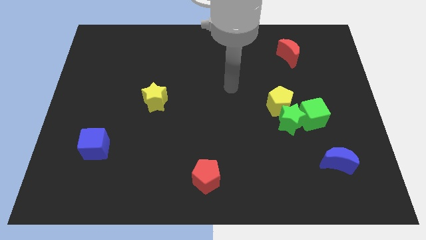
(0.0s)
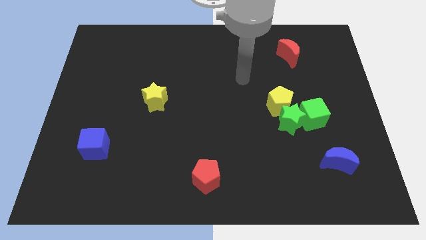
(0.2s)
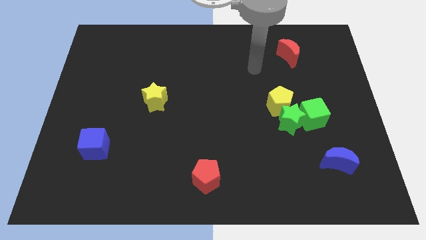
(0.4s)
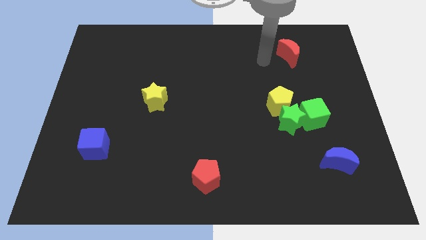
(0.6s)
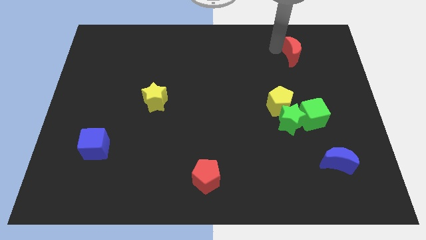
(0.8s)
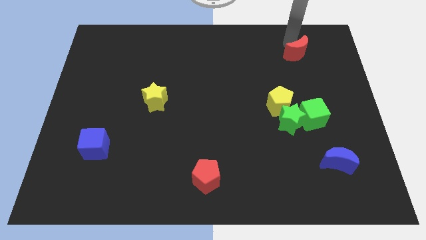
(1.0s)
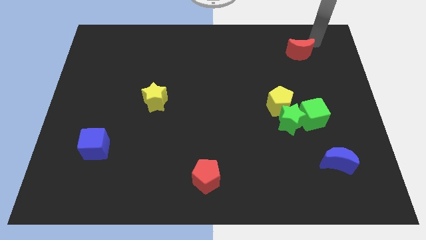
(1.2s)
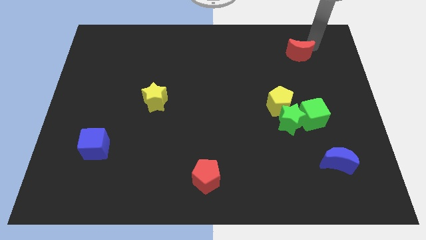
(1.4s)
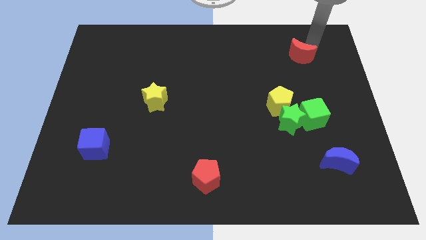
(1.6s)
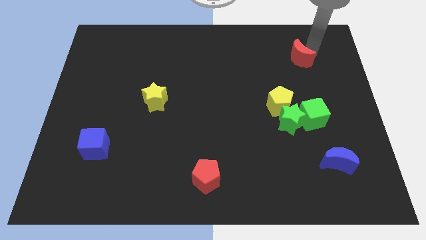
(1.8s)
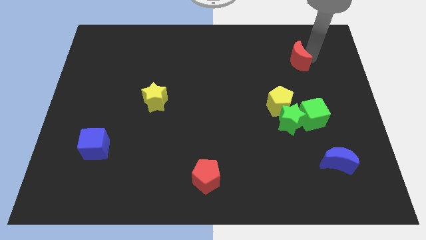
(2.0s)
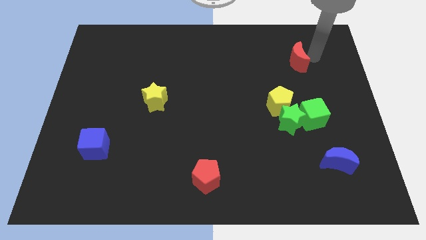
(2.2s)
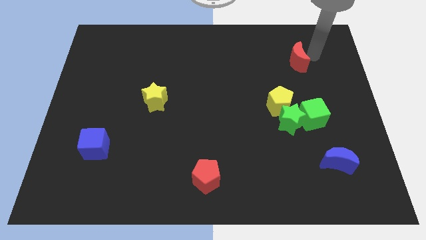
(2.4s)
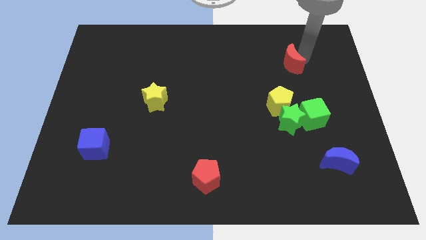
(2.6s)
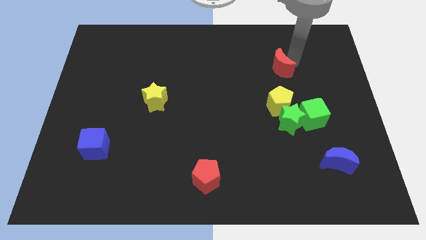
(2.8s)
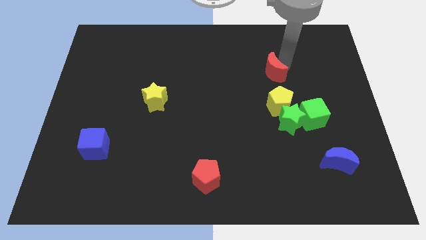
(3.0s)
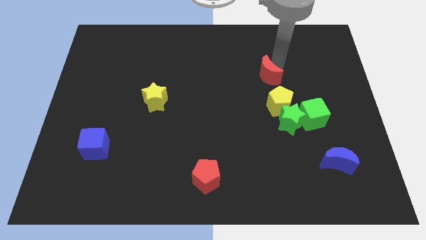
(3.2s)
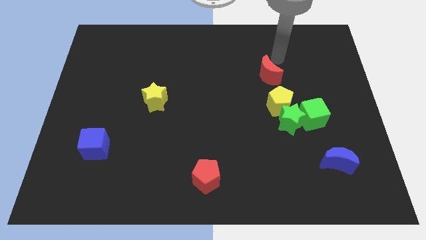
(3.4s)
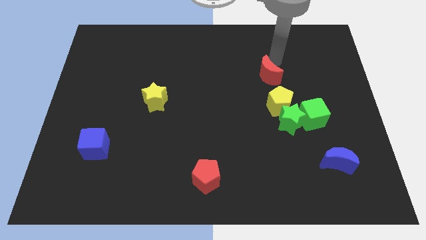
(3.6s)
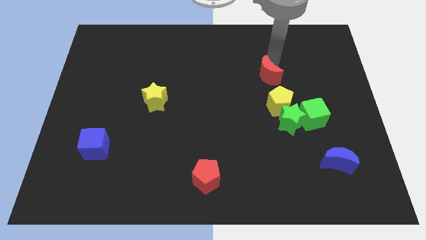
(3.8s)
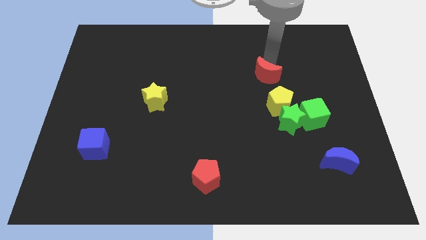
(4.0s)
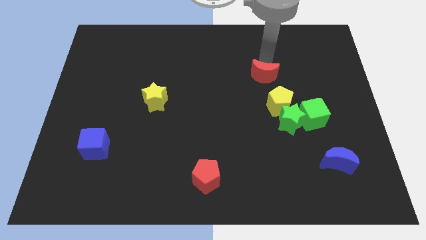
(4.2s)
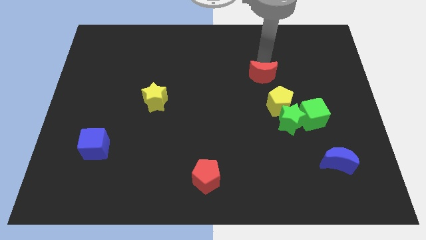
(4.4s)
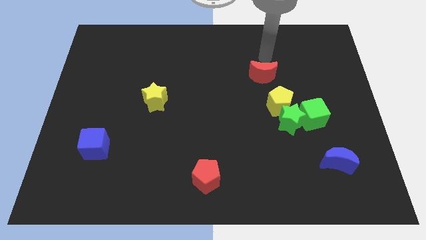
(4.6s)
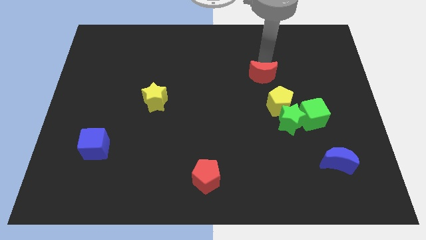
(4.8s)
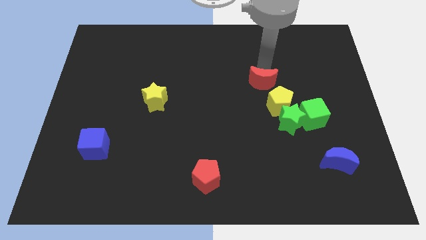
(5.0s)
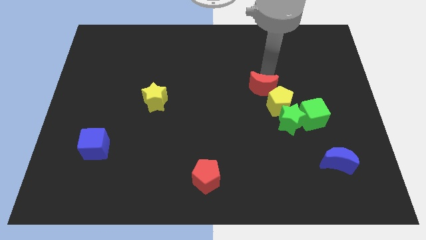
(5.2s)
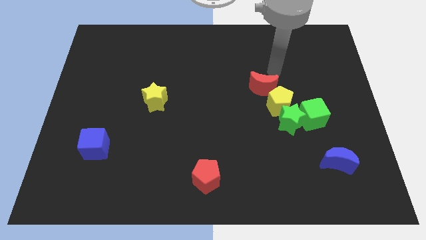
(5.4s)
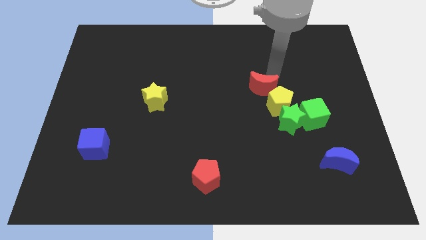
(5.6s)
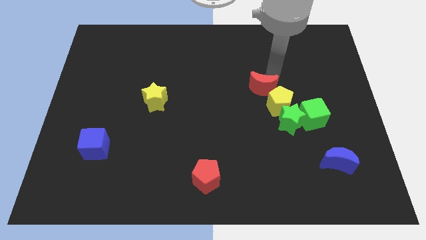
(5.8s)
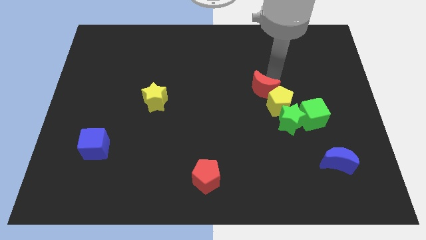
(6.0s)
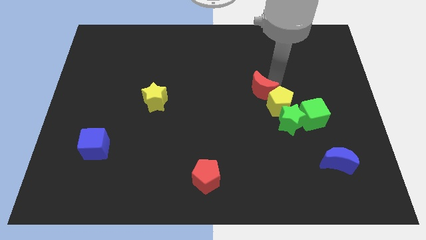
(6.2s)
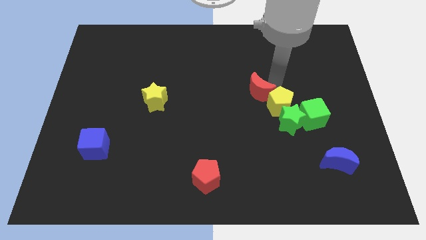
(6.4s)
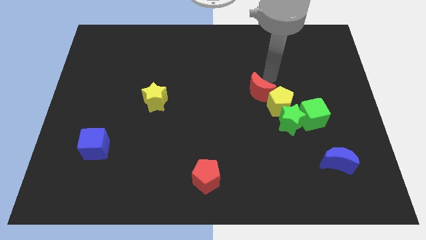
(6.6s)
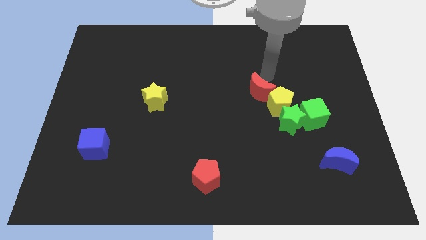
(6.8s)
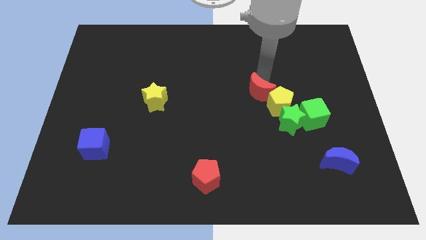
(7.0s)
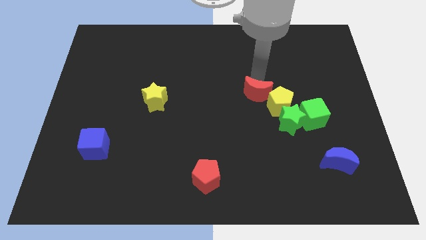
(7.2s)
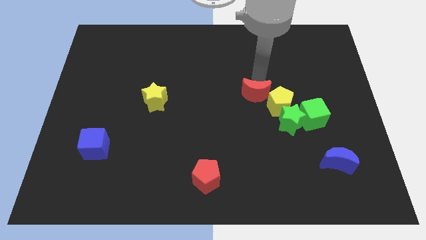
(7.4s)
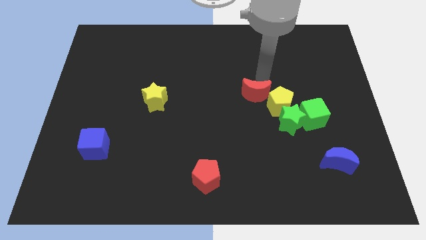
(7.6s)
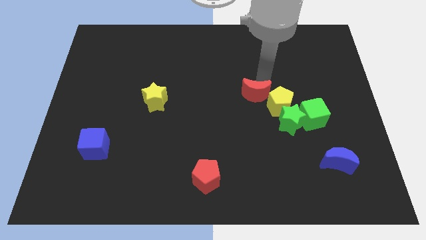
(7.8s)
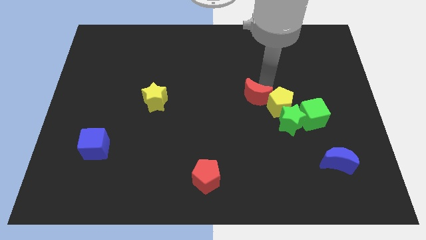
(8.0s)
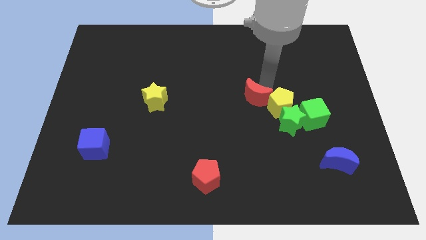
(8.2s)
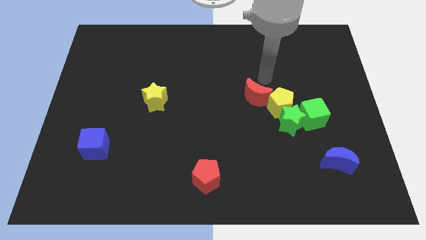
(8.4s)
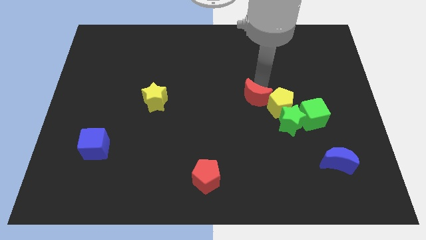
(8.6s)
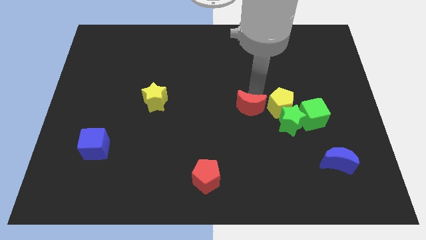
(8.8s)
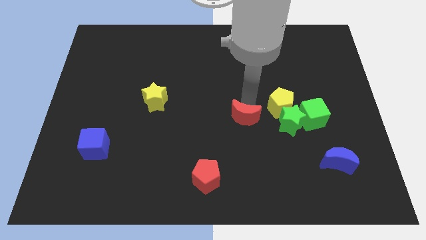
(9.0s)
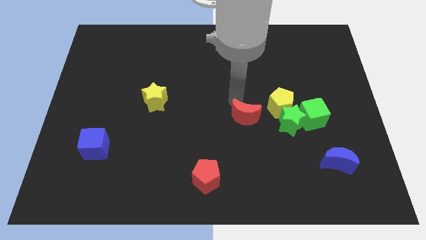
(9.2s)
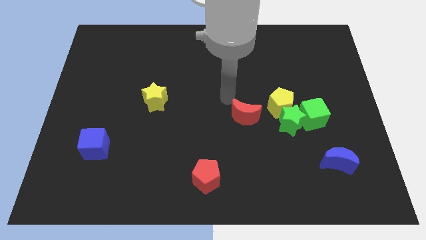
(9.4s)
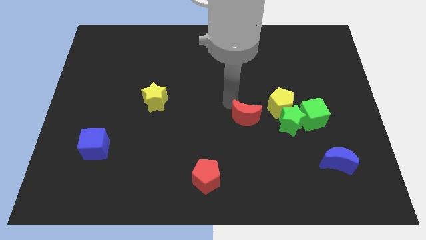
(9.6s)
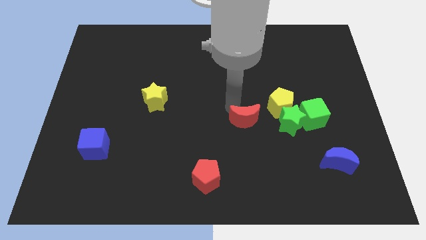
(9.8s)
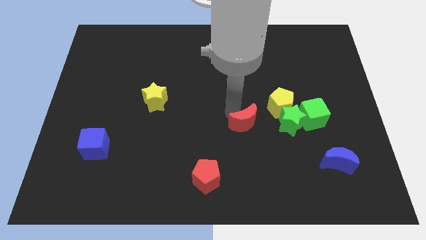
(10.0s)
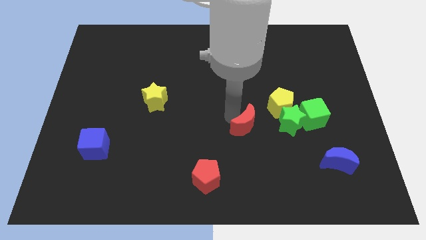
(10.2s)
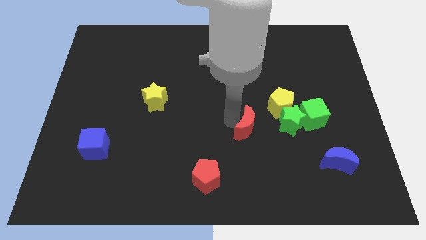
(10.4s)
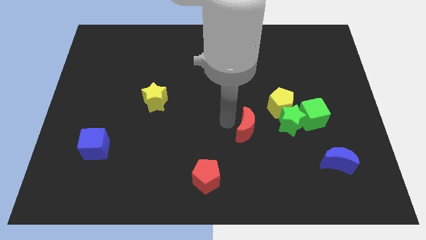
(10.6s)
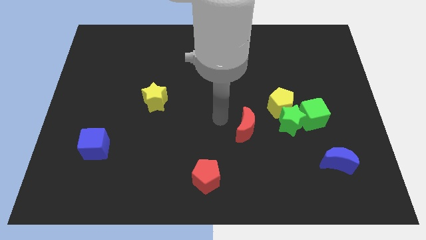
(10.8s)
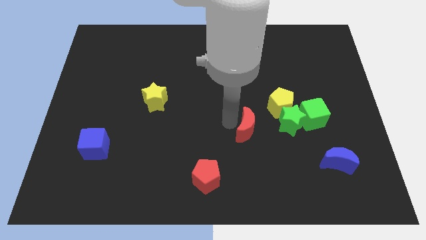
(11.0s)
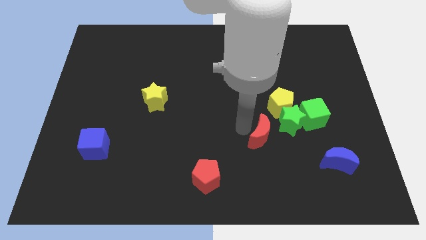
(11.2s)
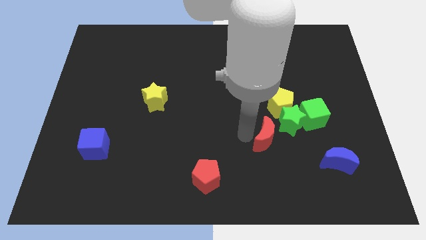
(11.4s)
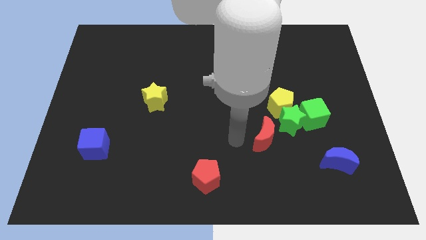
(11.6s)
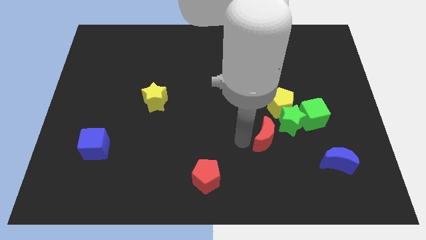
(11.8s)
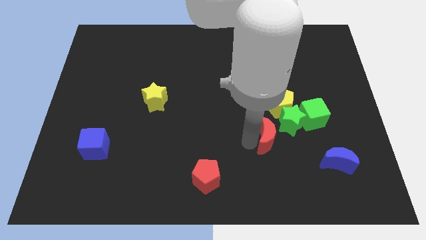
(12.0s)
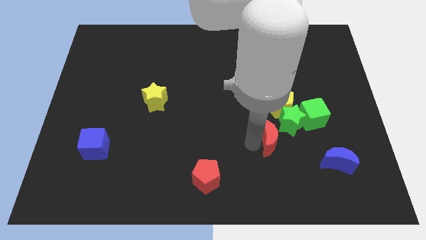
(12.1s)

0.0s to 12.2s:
slide the red moon to the bottom left of the green cube

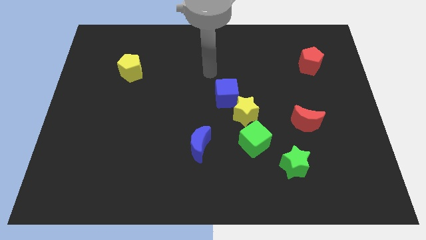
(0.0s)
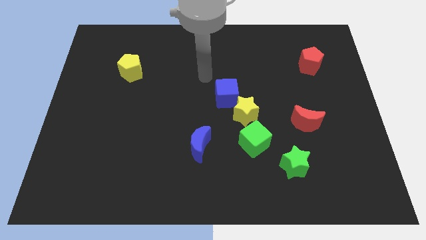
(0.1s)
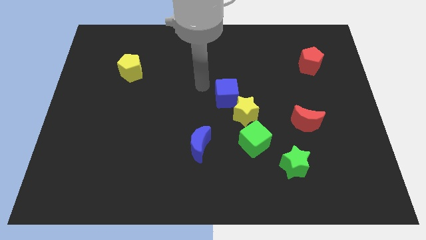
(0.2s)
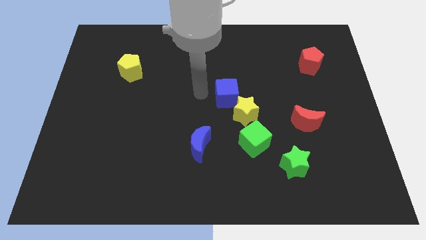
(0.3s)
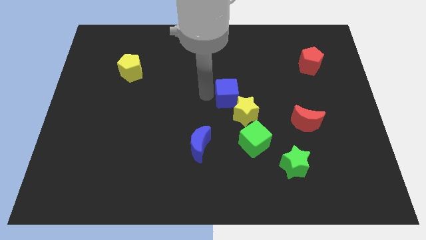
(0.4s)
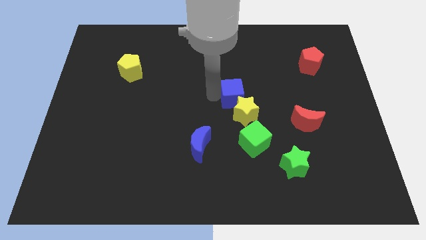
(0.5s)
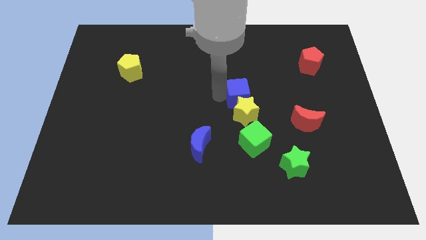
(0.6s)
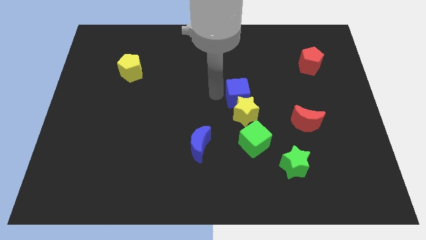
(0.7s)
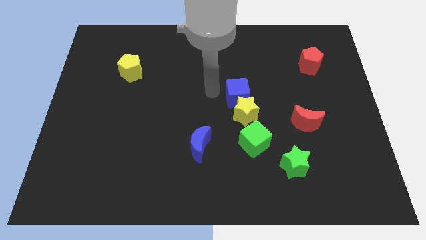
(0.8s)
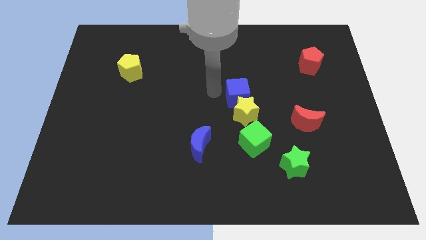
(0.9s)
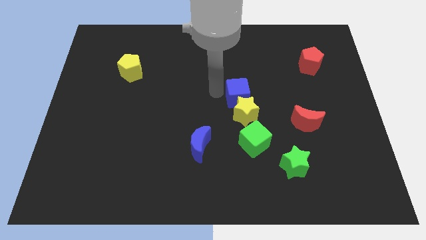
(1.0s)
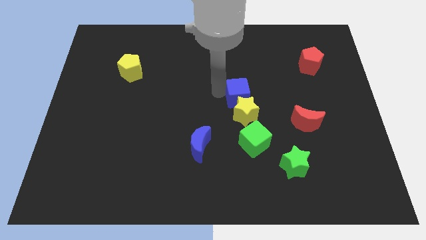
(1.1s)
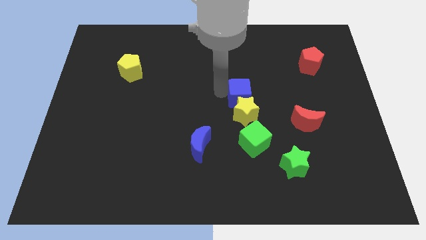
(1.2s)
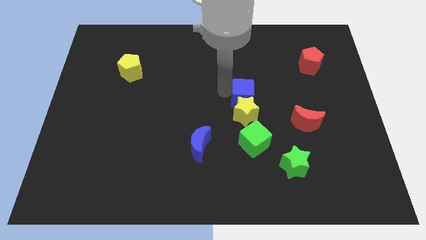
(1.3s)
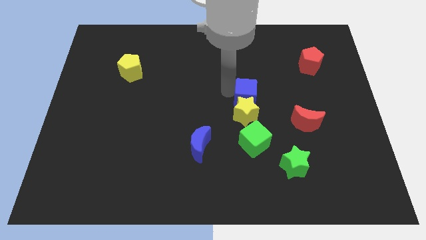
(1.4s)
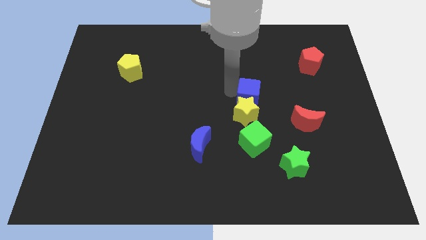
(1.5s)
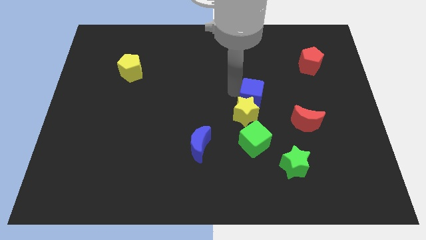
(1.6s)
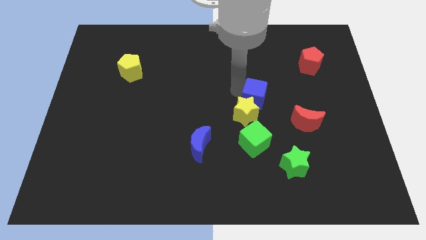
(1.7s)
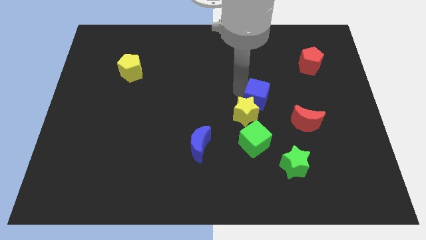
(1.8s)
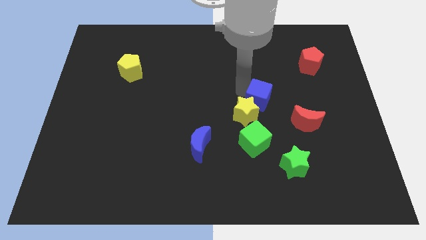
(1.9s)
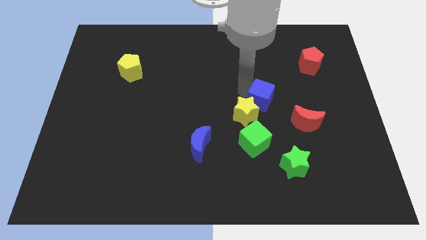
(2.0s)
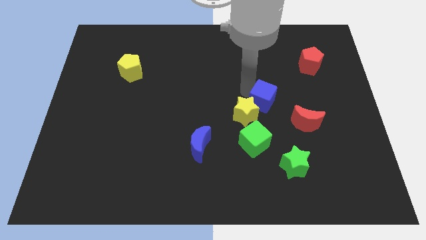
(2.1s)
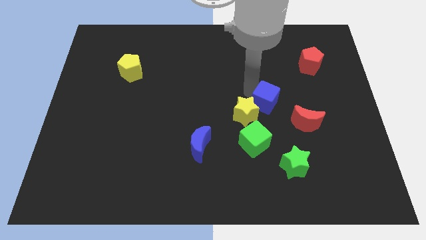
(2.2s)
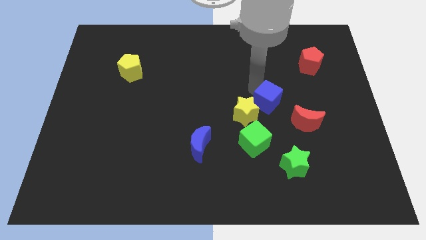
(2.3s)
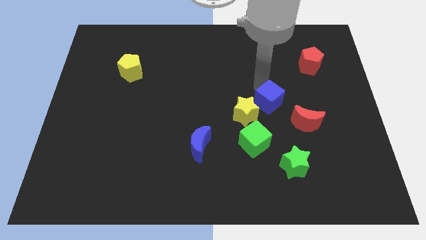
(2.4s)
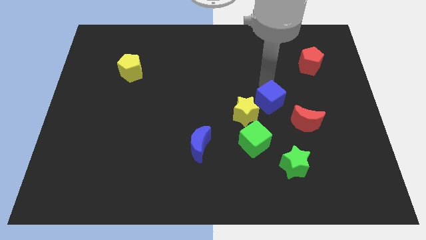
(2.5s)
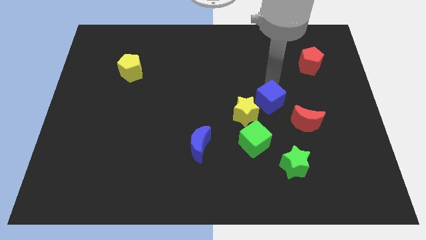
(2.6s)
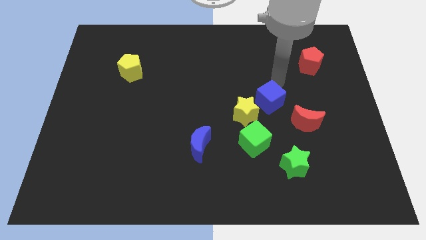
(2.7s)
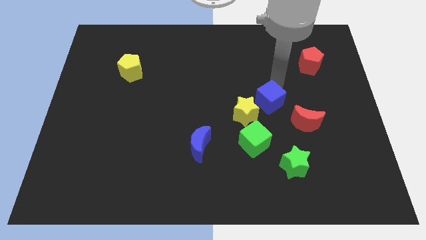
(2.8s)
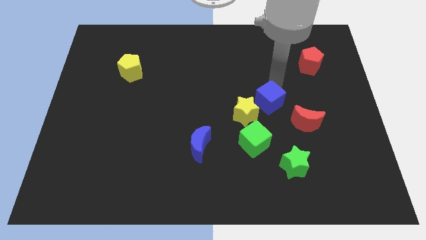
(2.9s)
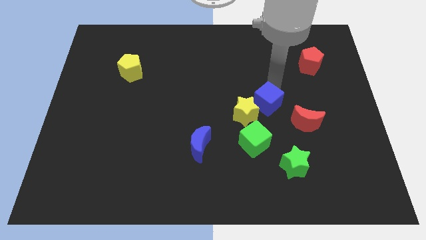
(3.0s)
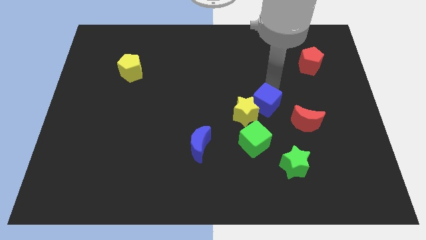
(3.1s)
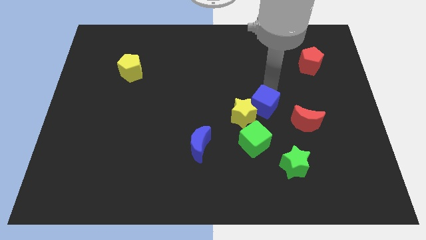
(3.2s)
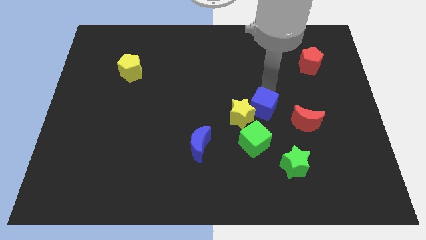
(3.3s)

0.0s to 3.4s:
put the blue cube left of the red moon
